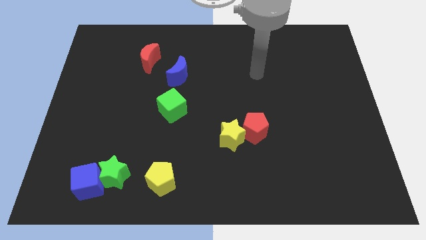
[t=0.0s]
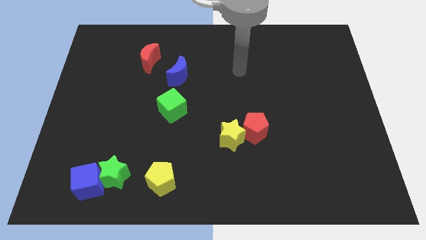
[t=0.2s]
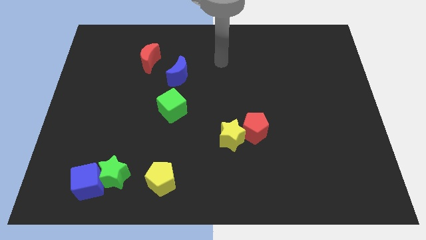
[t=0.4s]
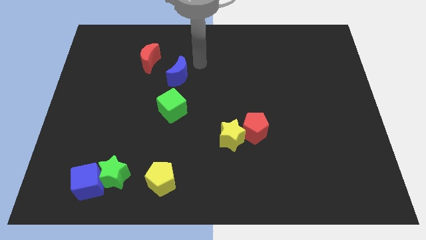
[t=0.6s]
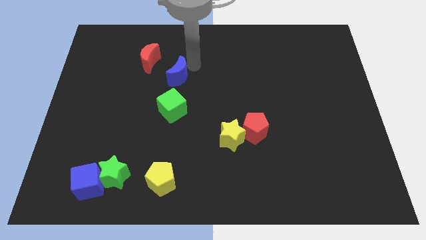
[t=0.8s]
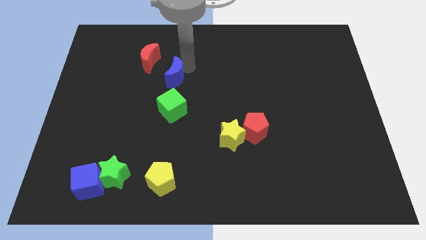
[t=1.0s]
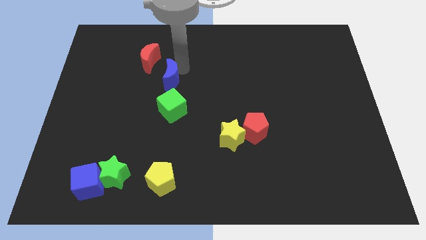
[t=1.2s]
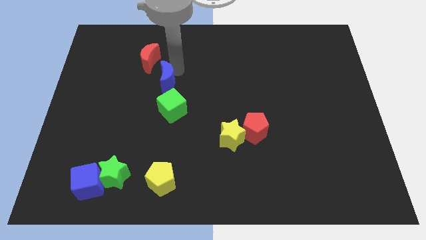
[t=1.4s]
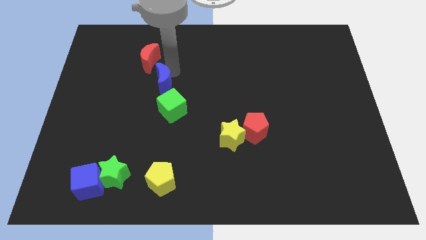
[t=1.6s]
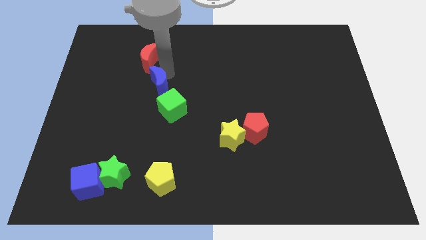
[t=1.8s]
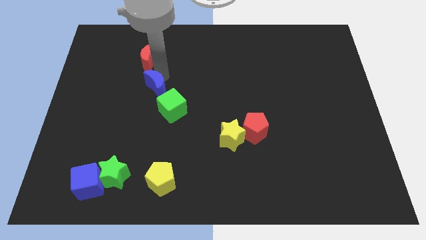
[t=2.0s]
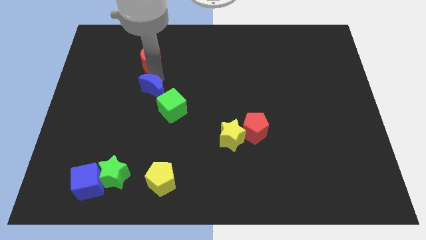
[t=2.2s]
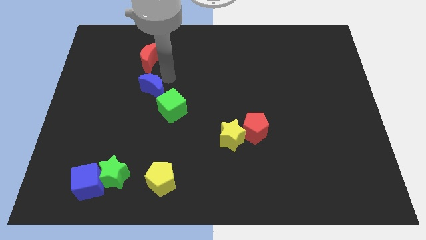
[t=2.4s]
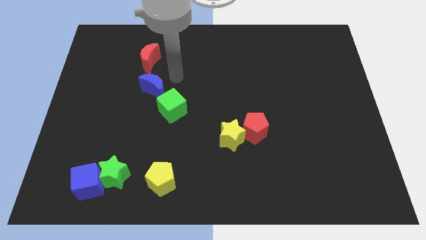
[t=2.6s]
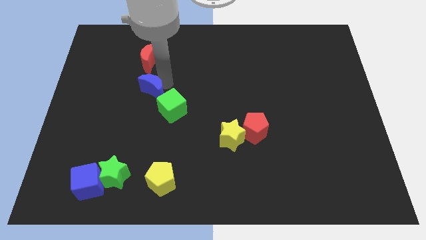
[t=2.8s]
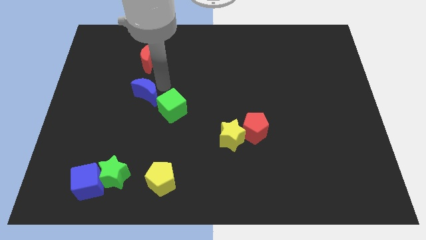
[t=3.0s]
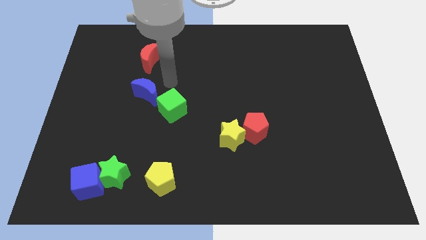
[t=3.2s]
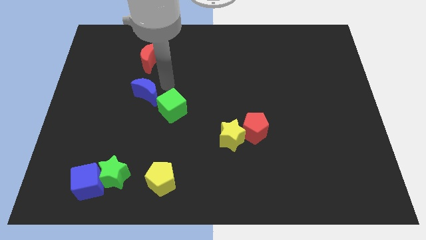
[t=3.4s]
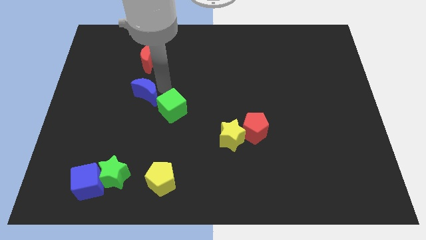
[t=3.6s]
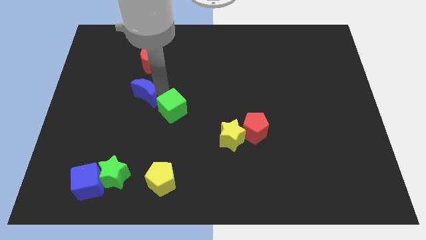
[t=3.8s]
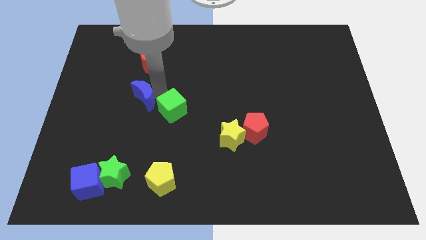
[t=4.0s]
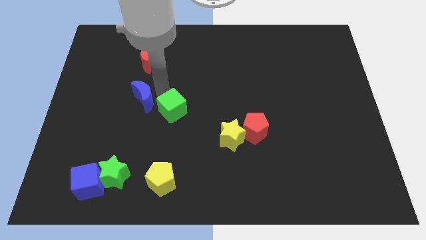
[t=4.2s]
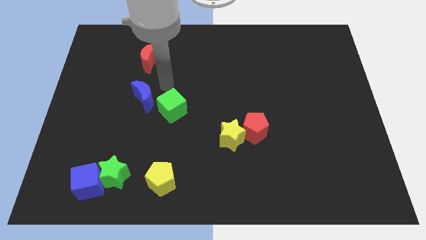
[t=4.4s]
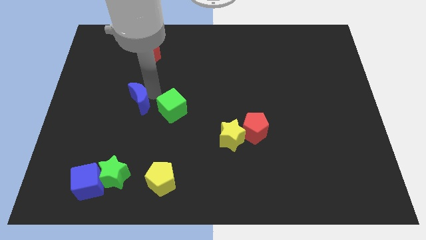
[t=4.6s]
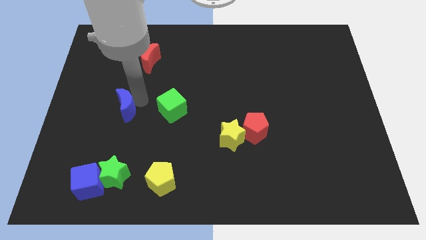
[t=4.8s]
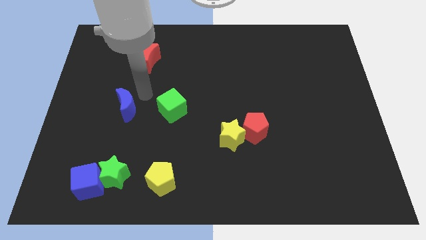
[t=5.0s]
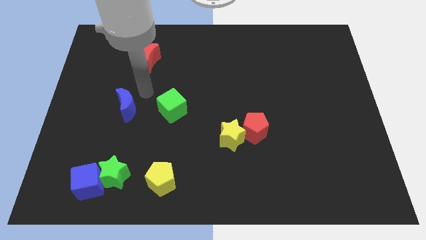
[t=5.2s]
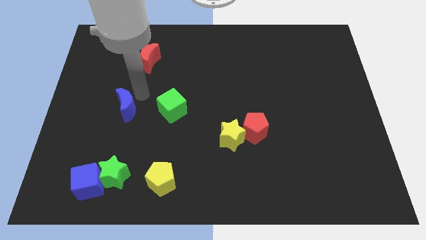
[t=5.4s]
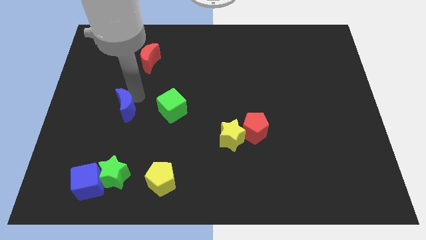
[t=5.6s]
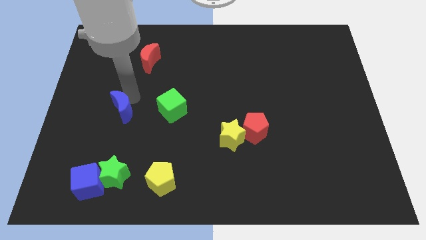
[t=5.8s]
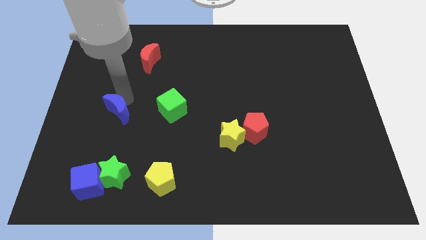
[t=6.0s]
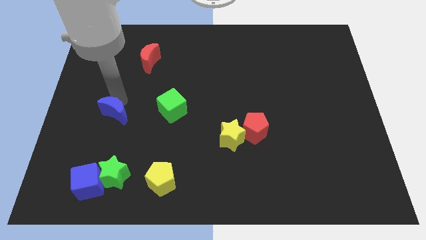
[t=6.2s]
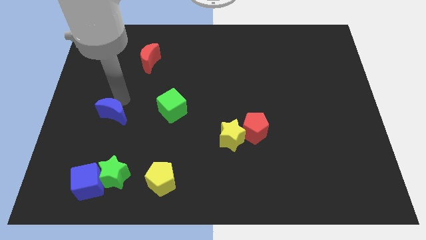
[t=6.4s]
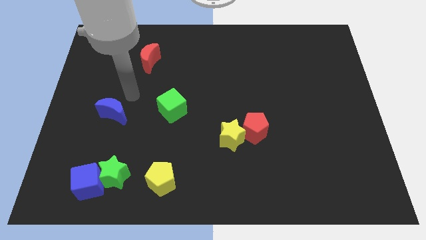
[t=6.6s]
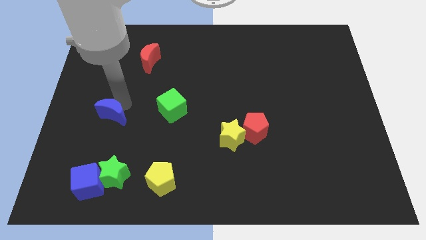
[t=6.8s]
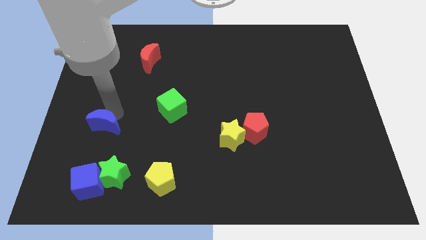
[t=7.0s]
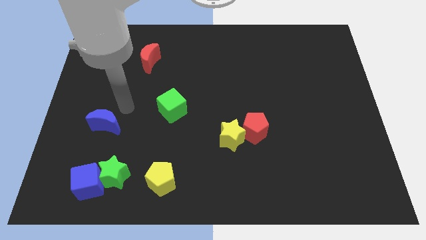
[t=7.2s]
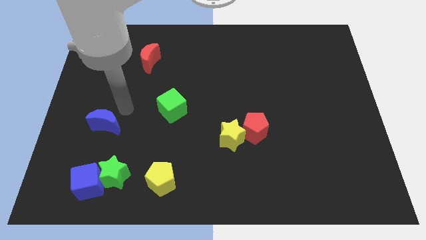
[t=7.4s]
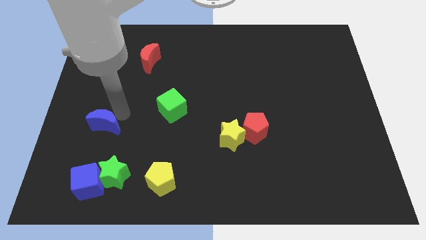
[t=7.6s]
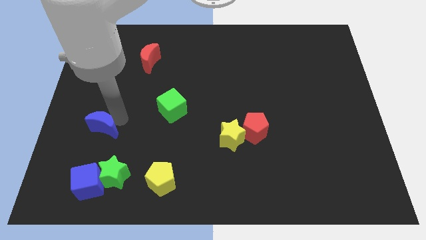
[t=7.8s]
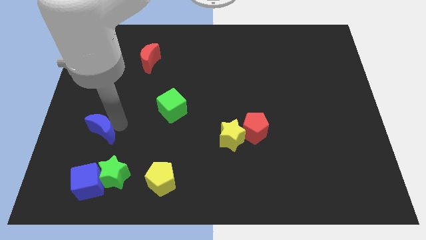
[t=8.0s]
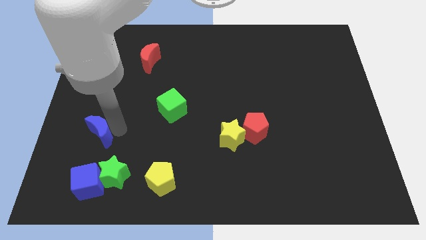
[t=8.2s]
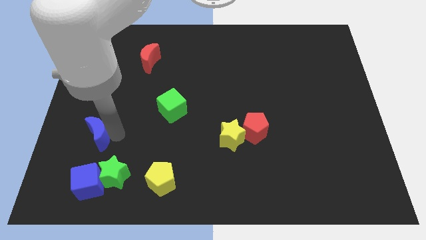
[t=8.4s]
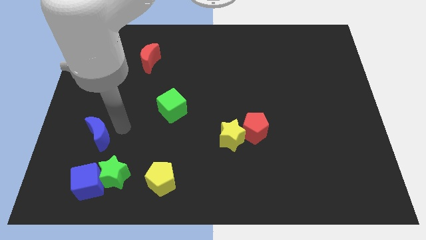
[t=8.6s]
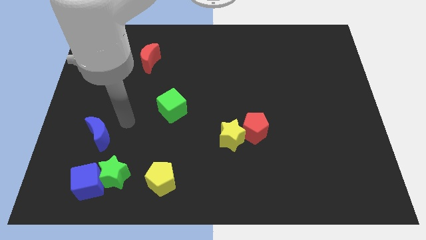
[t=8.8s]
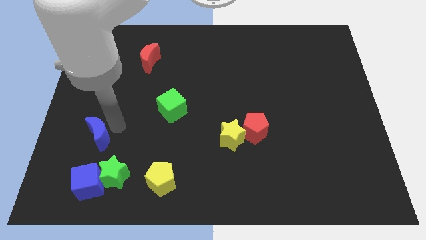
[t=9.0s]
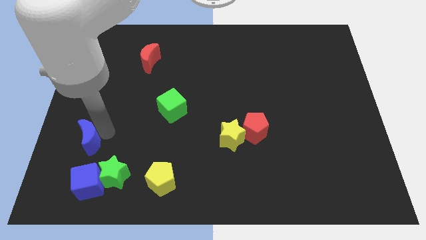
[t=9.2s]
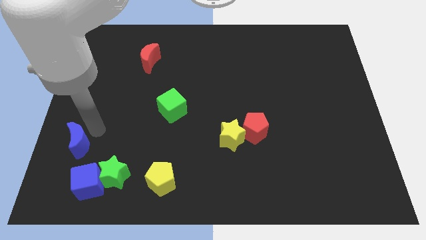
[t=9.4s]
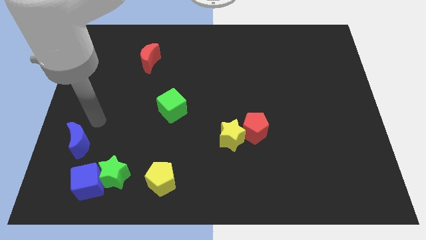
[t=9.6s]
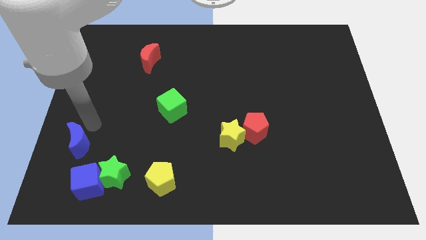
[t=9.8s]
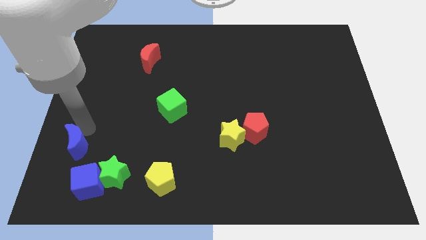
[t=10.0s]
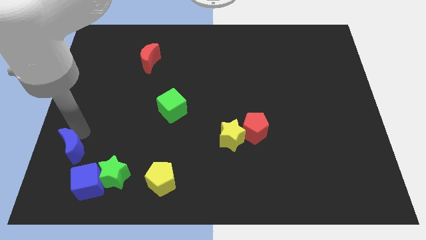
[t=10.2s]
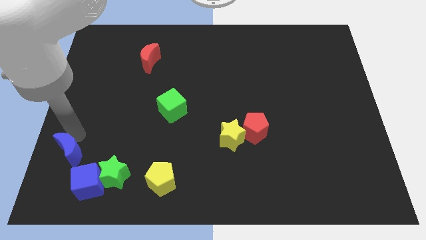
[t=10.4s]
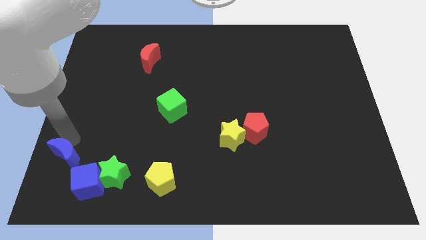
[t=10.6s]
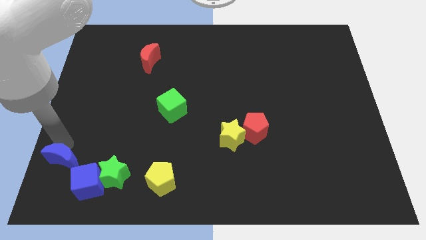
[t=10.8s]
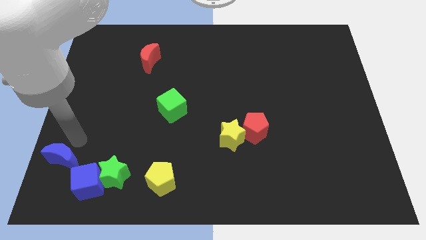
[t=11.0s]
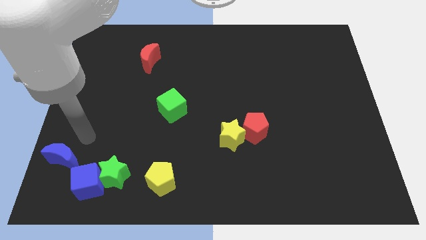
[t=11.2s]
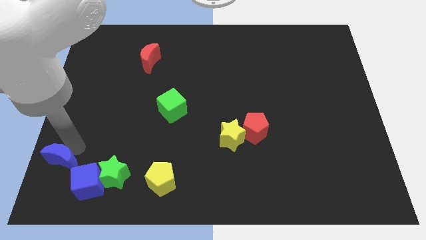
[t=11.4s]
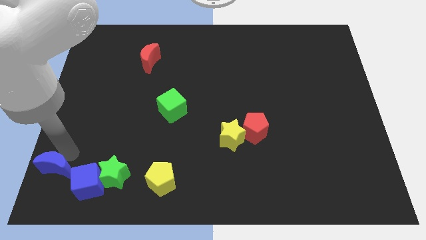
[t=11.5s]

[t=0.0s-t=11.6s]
move the blue moon to the bottom left corner
